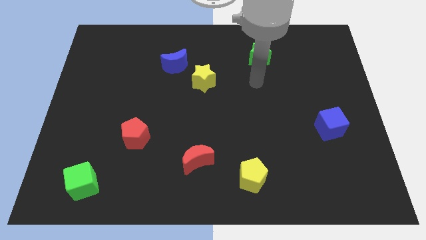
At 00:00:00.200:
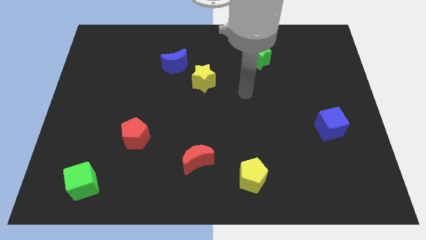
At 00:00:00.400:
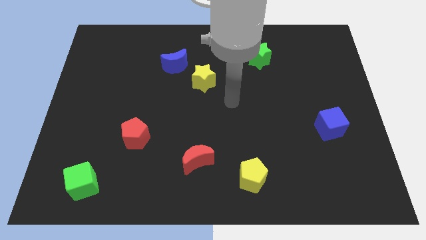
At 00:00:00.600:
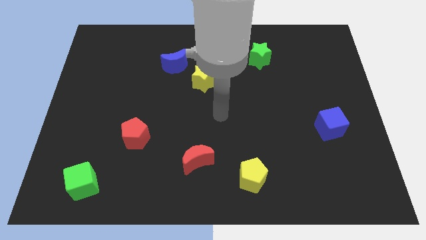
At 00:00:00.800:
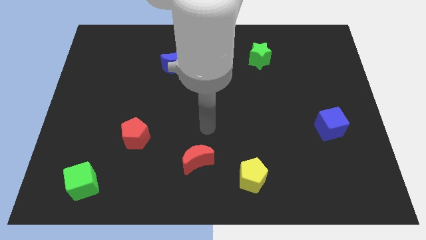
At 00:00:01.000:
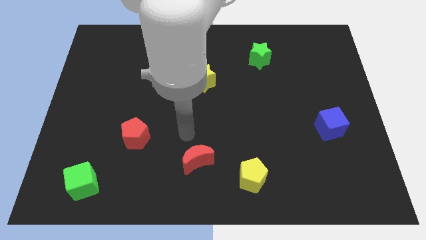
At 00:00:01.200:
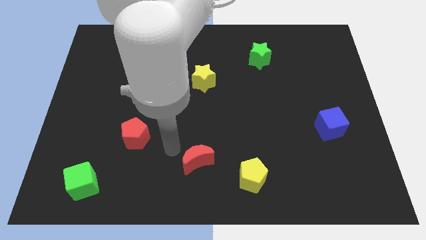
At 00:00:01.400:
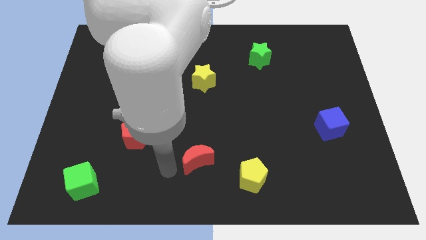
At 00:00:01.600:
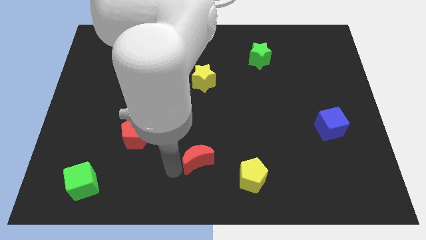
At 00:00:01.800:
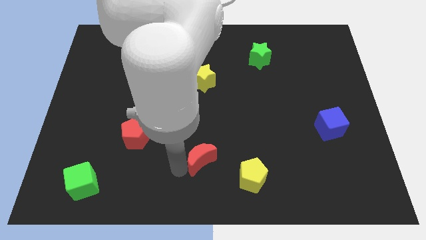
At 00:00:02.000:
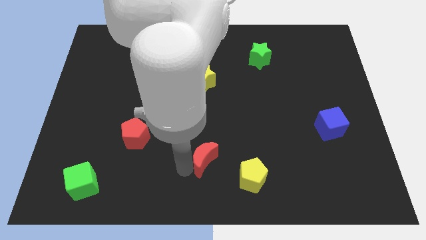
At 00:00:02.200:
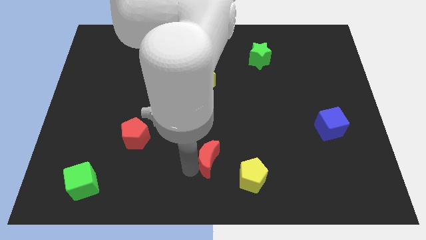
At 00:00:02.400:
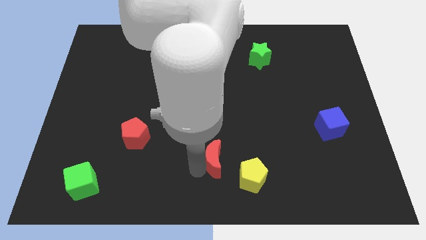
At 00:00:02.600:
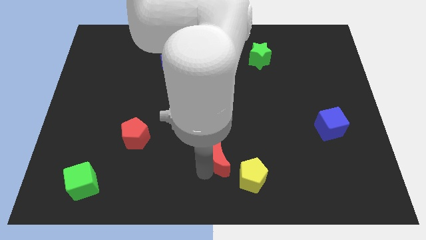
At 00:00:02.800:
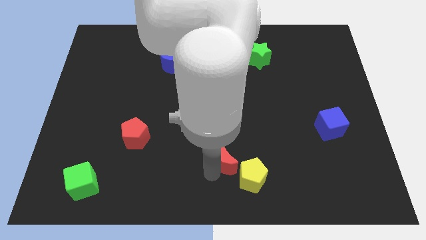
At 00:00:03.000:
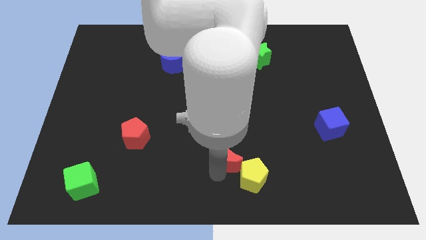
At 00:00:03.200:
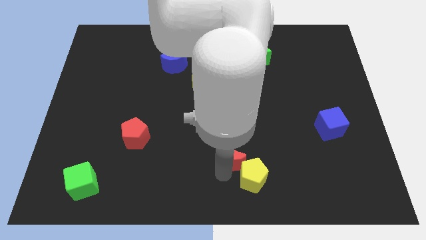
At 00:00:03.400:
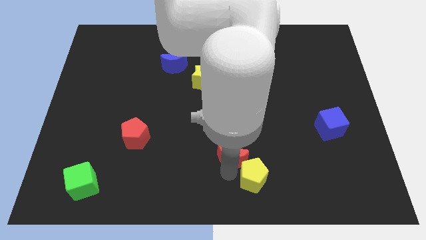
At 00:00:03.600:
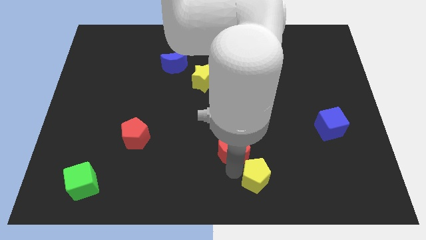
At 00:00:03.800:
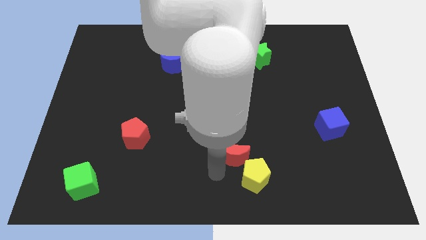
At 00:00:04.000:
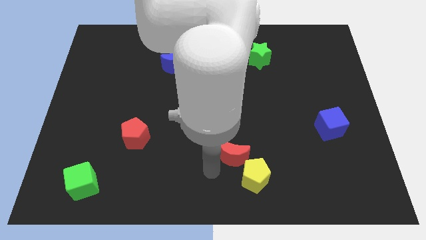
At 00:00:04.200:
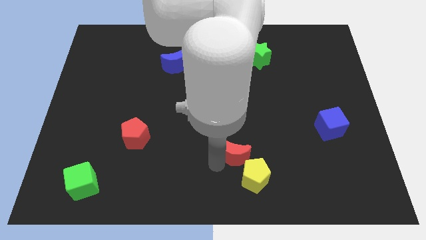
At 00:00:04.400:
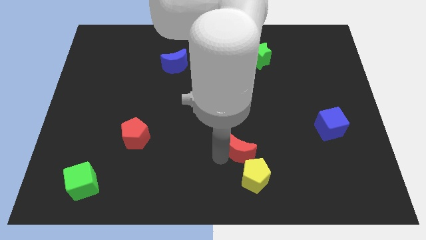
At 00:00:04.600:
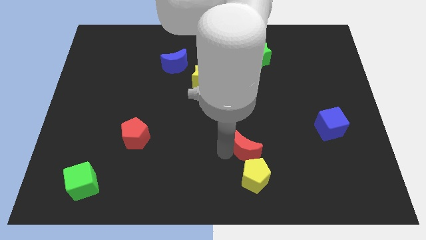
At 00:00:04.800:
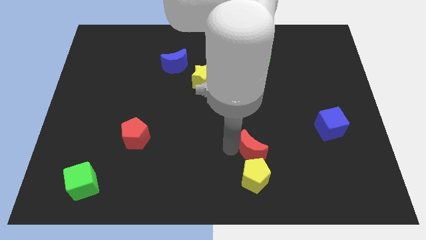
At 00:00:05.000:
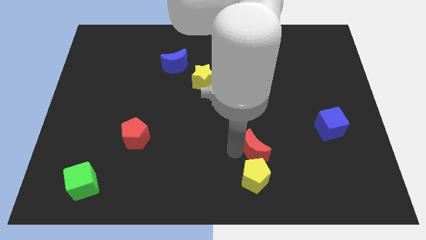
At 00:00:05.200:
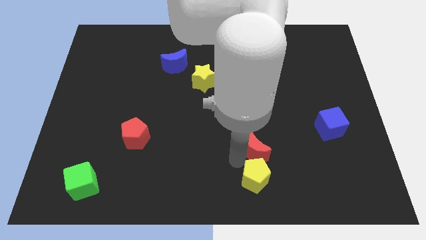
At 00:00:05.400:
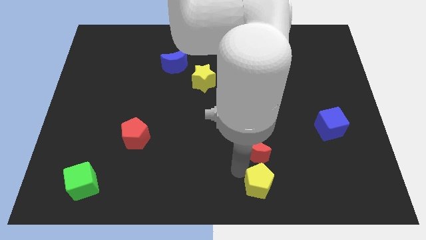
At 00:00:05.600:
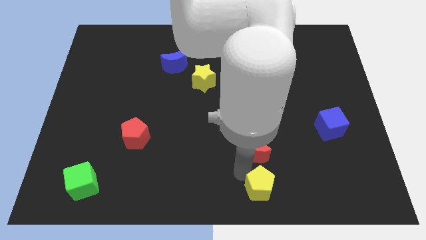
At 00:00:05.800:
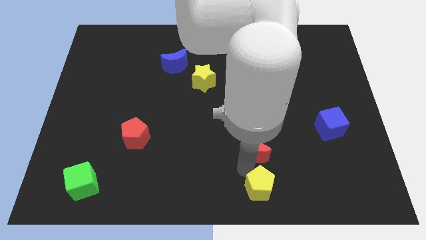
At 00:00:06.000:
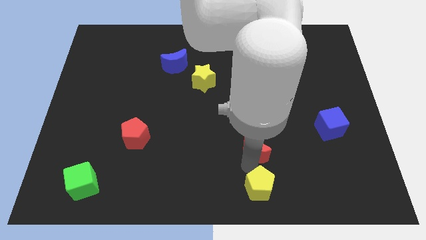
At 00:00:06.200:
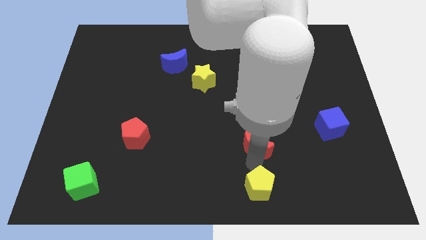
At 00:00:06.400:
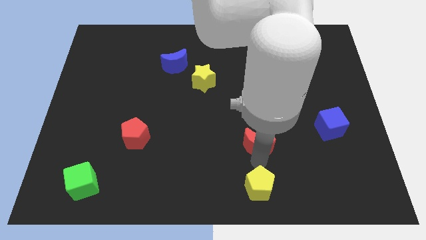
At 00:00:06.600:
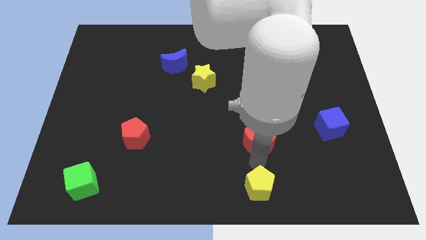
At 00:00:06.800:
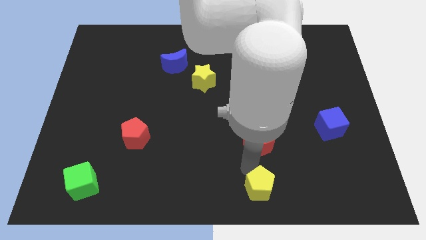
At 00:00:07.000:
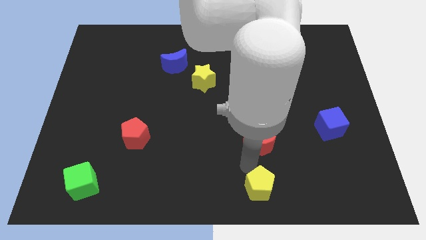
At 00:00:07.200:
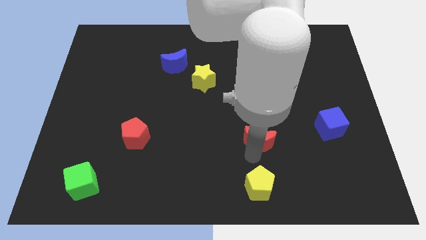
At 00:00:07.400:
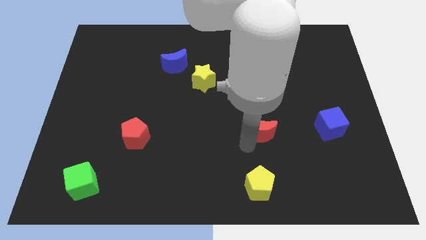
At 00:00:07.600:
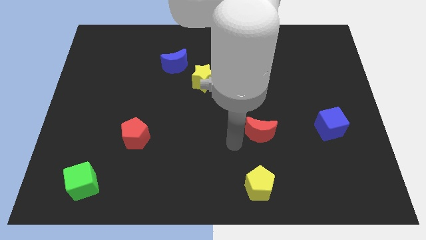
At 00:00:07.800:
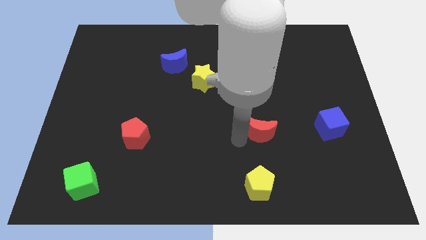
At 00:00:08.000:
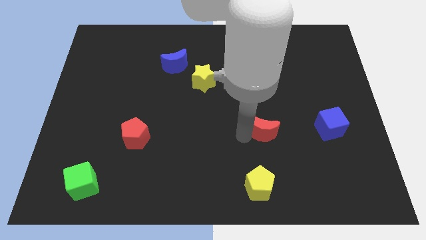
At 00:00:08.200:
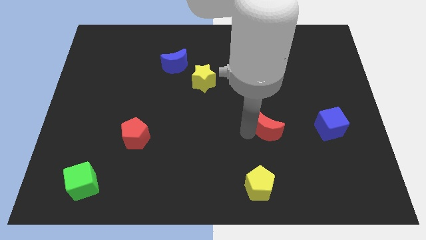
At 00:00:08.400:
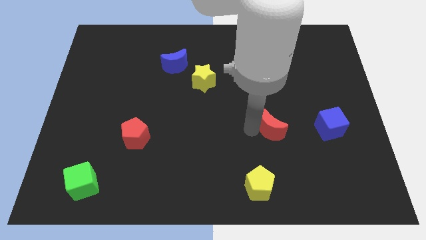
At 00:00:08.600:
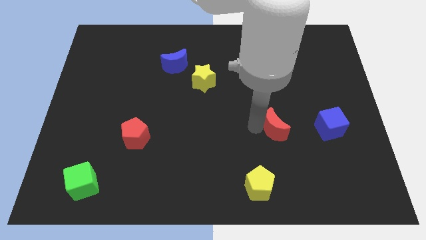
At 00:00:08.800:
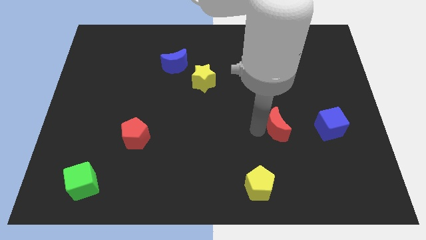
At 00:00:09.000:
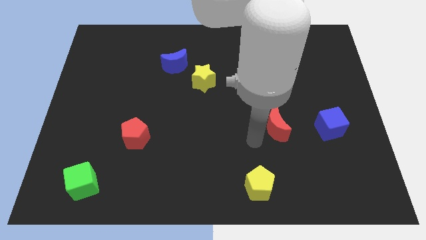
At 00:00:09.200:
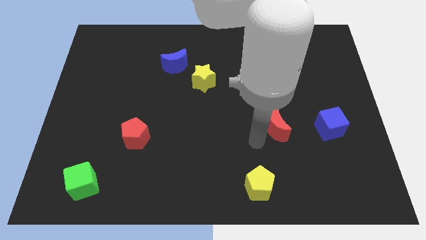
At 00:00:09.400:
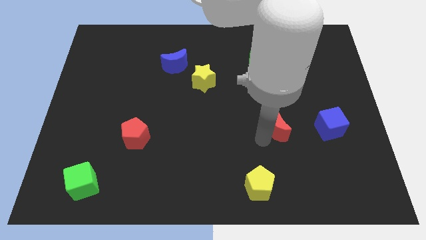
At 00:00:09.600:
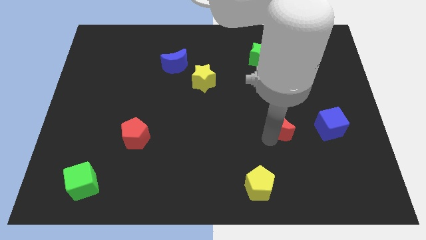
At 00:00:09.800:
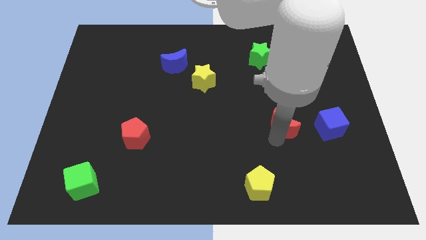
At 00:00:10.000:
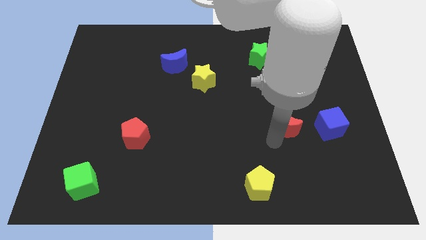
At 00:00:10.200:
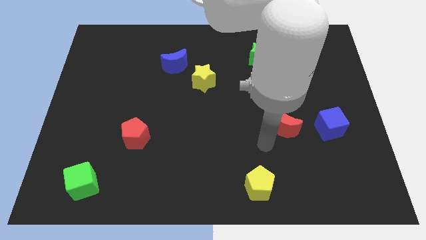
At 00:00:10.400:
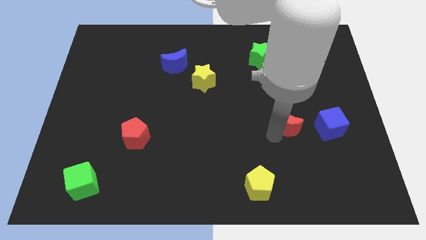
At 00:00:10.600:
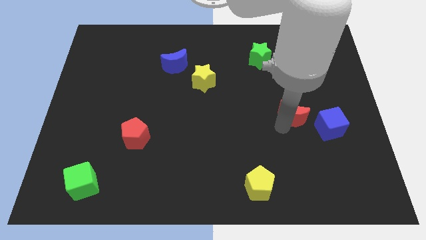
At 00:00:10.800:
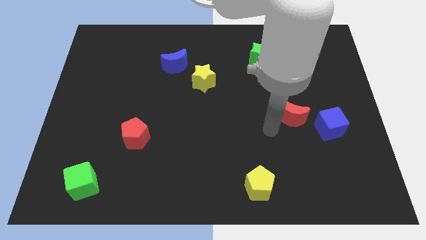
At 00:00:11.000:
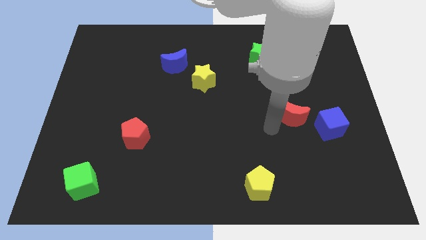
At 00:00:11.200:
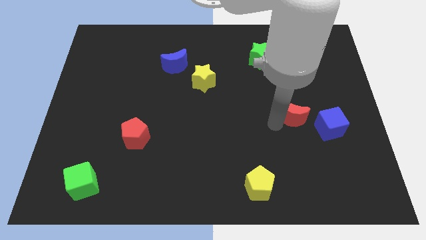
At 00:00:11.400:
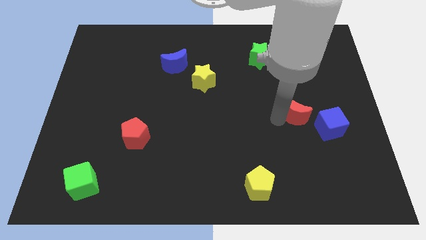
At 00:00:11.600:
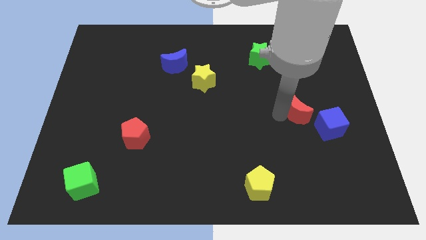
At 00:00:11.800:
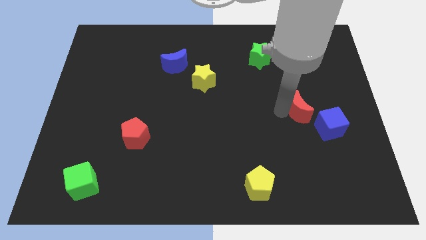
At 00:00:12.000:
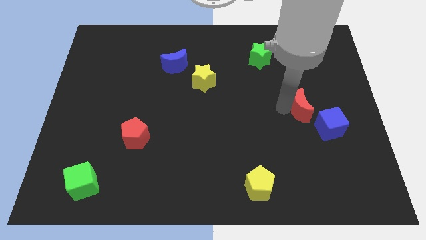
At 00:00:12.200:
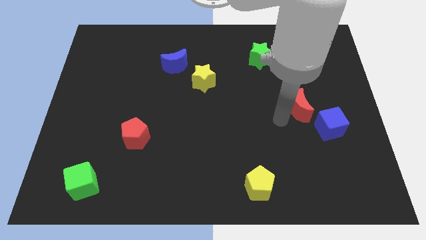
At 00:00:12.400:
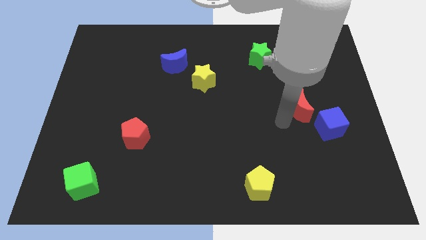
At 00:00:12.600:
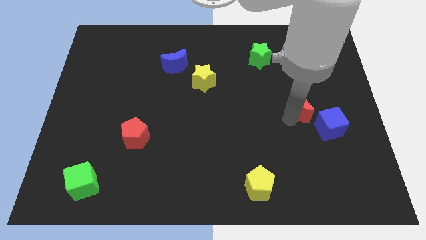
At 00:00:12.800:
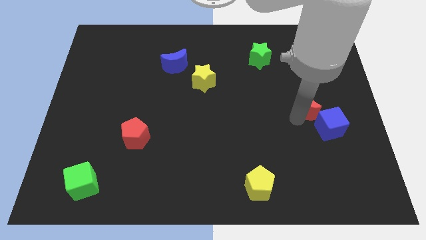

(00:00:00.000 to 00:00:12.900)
put the red moon above the blue cube
